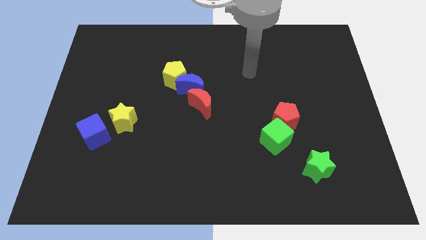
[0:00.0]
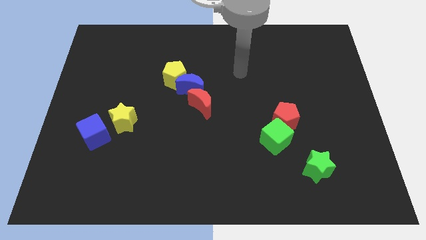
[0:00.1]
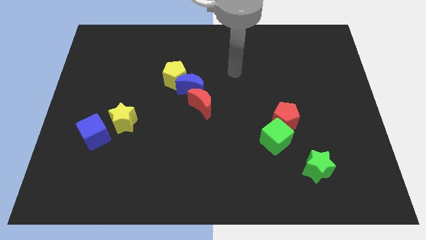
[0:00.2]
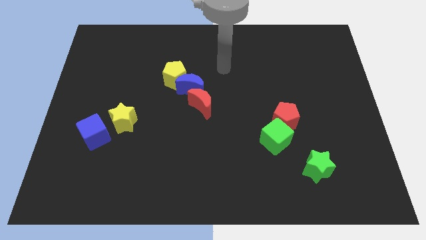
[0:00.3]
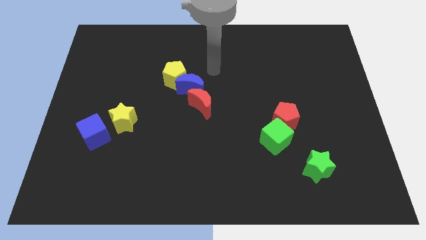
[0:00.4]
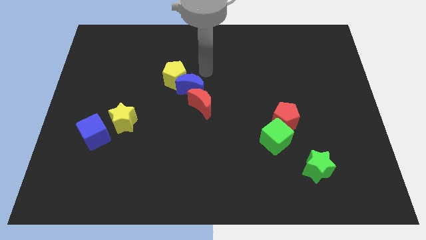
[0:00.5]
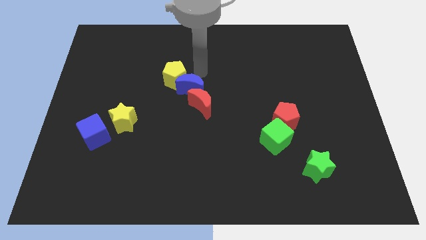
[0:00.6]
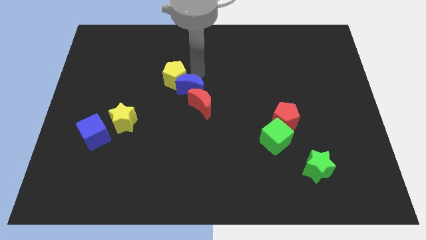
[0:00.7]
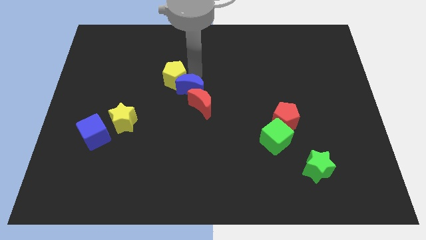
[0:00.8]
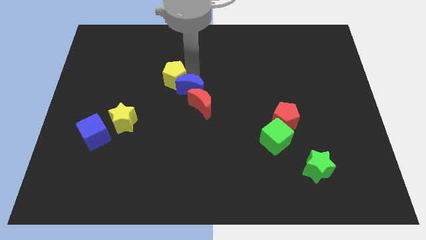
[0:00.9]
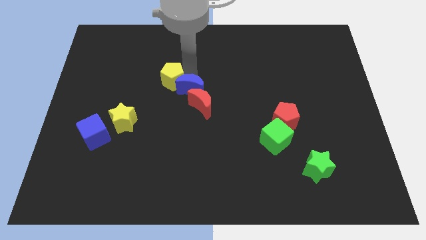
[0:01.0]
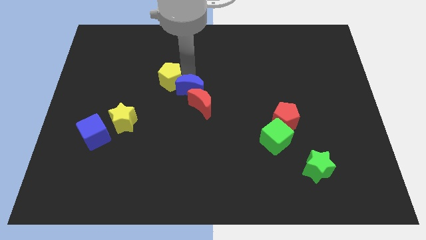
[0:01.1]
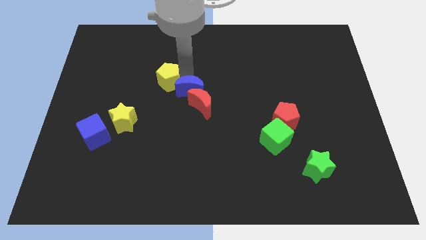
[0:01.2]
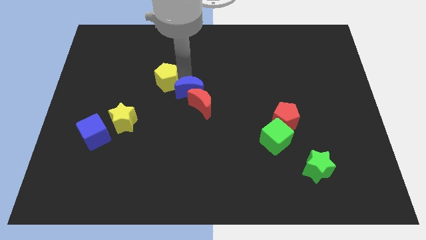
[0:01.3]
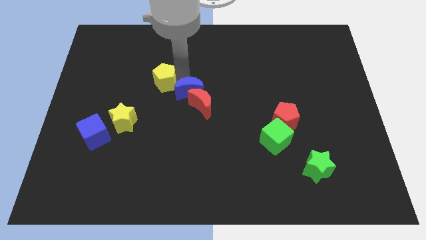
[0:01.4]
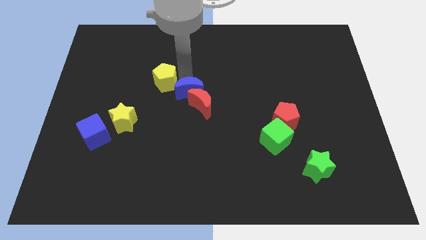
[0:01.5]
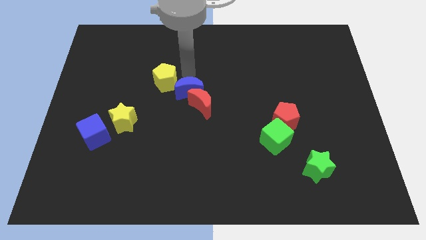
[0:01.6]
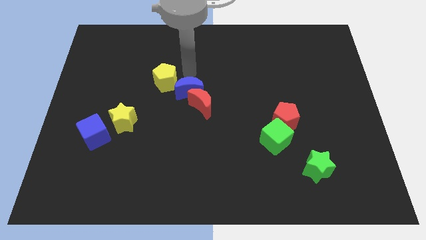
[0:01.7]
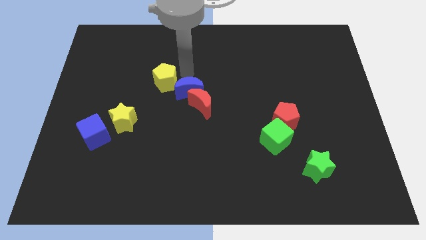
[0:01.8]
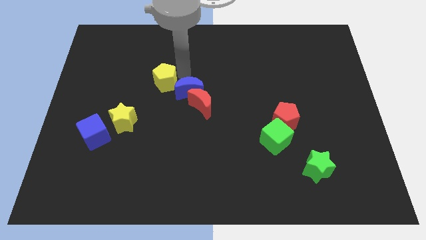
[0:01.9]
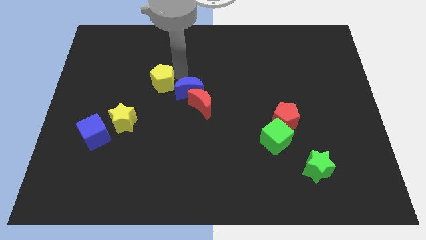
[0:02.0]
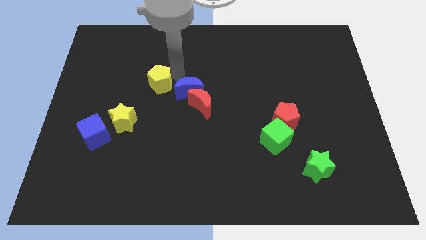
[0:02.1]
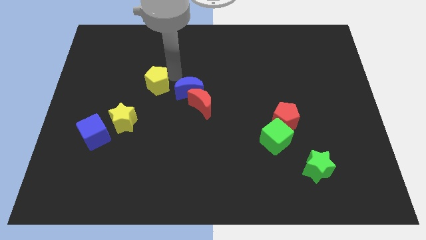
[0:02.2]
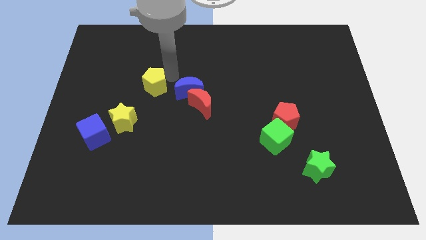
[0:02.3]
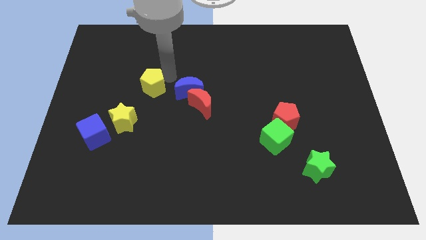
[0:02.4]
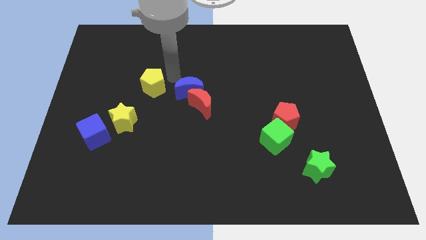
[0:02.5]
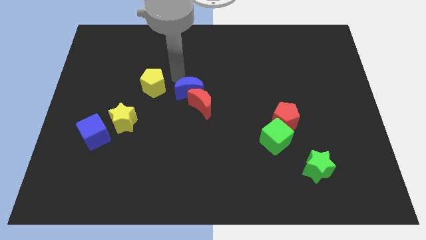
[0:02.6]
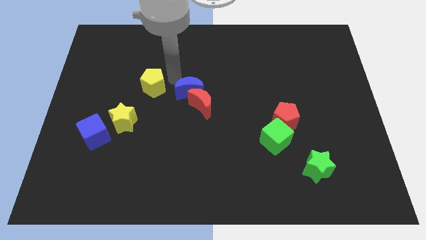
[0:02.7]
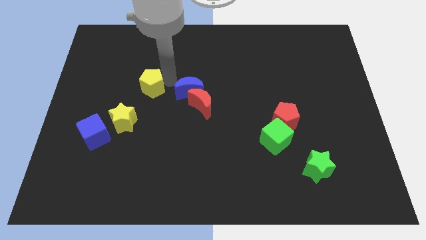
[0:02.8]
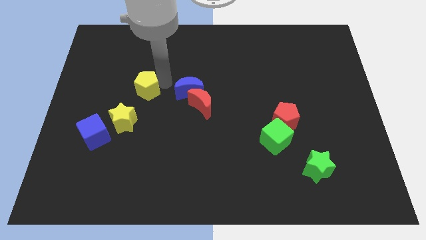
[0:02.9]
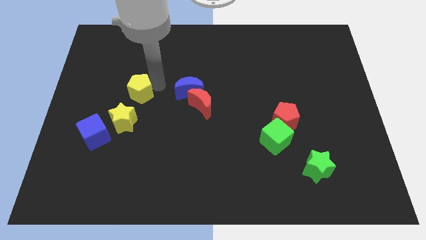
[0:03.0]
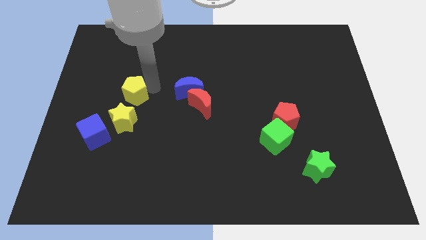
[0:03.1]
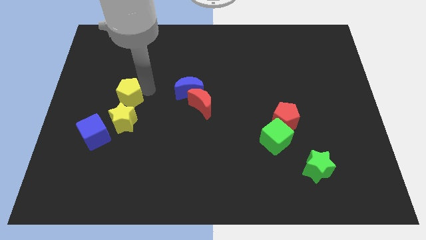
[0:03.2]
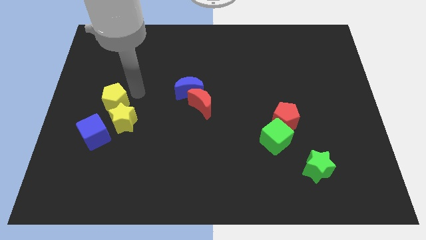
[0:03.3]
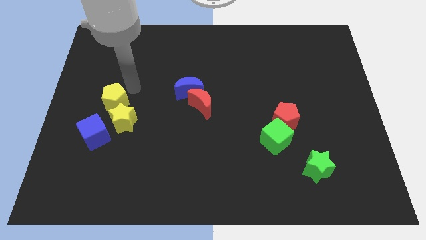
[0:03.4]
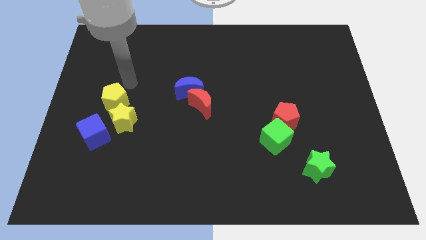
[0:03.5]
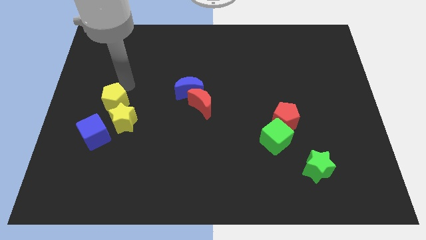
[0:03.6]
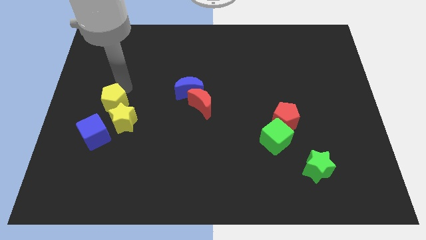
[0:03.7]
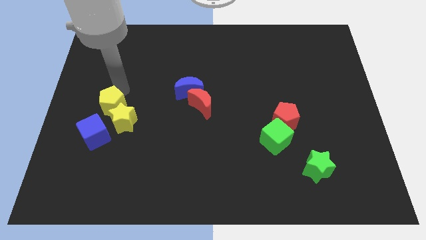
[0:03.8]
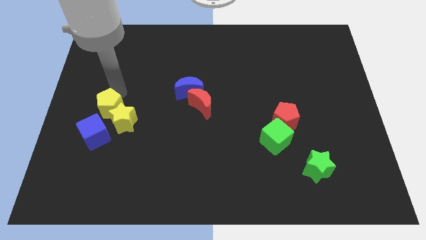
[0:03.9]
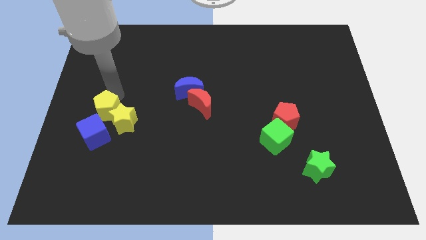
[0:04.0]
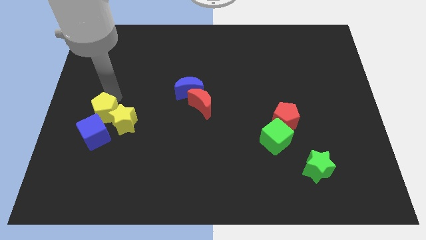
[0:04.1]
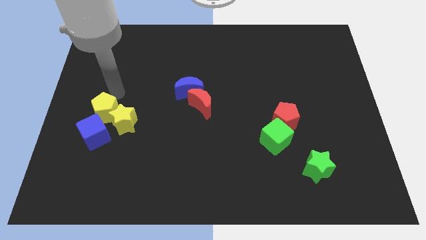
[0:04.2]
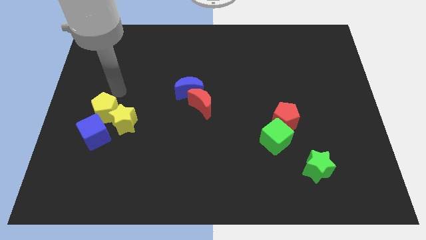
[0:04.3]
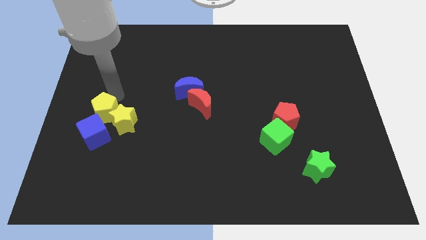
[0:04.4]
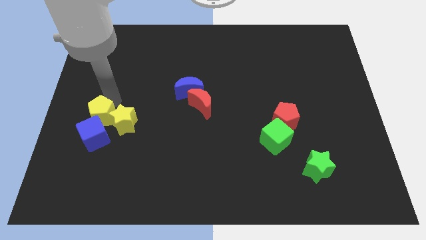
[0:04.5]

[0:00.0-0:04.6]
slide the yellow pentagon next to the blue cube

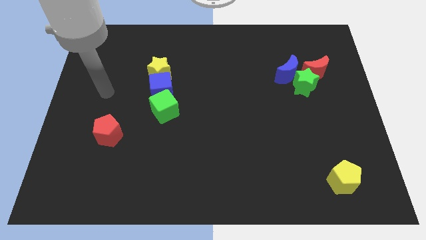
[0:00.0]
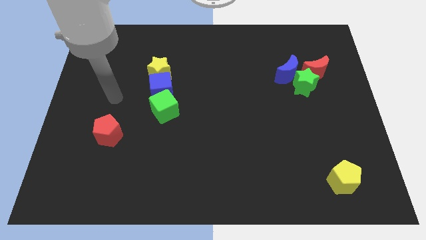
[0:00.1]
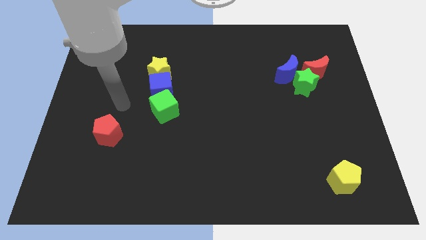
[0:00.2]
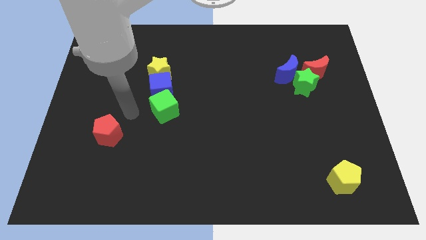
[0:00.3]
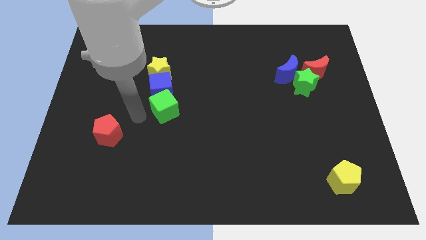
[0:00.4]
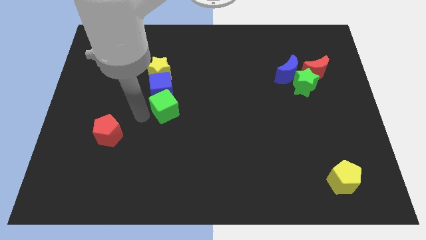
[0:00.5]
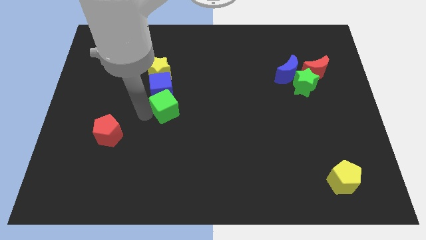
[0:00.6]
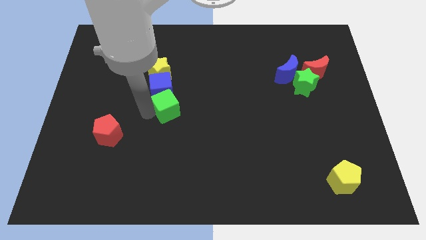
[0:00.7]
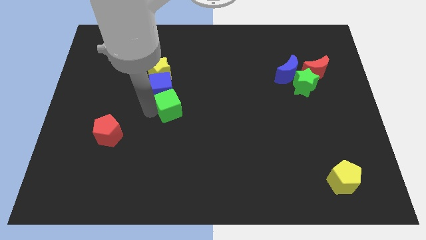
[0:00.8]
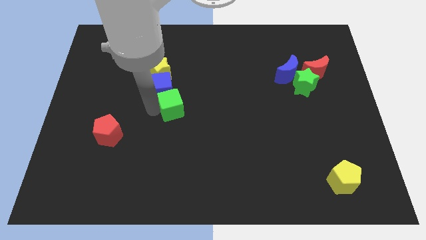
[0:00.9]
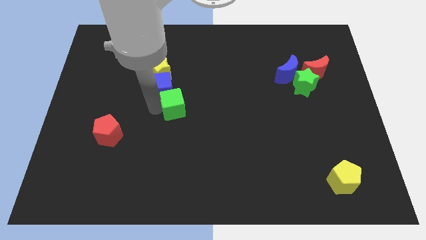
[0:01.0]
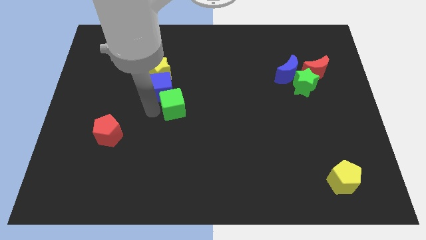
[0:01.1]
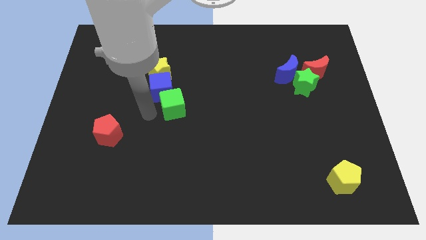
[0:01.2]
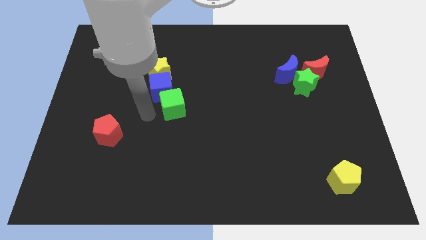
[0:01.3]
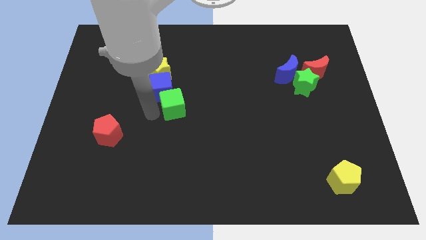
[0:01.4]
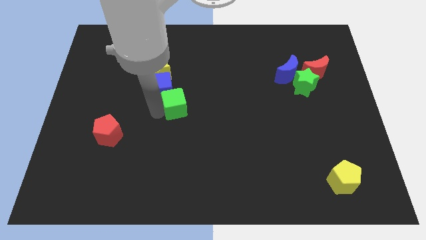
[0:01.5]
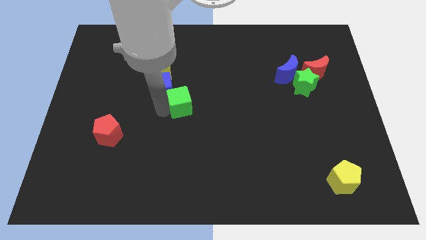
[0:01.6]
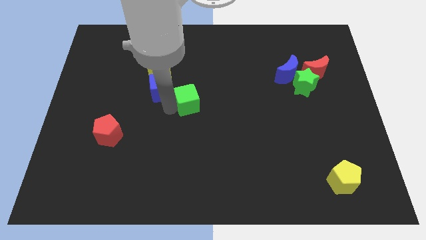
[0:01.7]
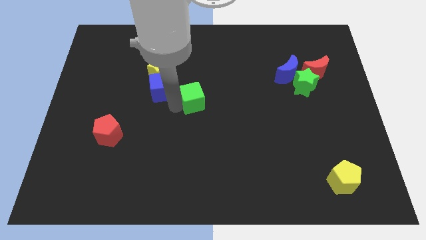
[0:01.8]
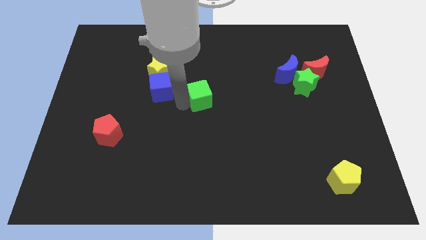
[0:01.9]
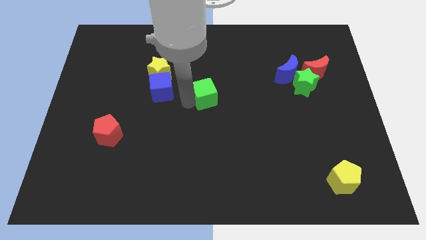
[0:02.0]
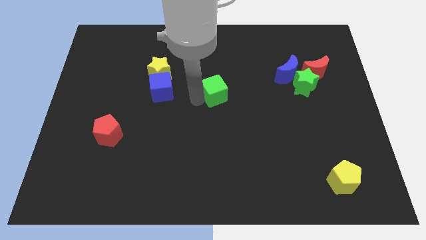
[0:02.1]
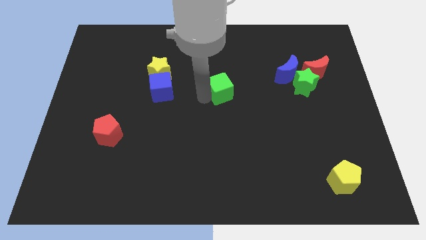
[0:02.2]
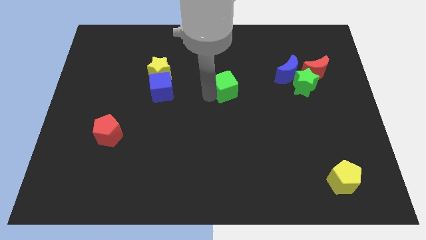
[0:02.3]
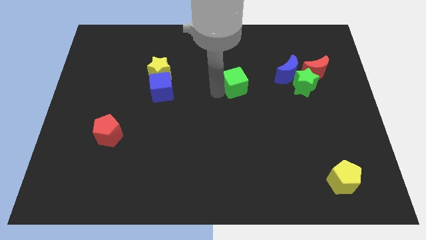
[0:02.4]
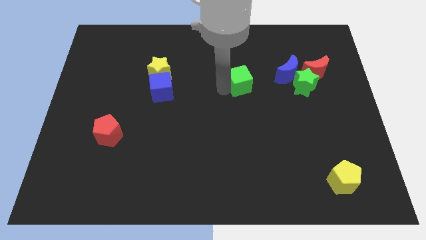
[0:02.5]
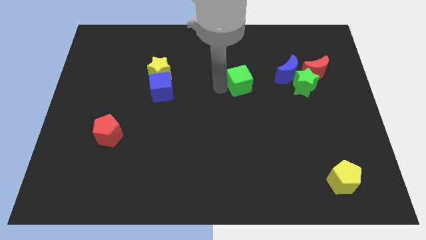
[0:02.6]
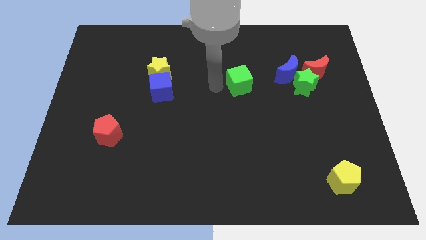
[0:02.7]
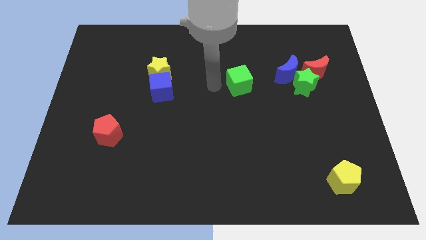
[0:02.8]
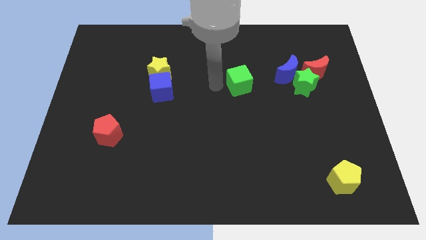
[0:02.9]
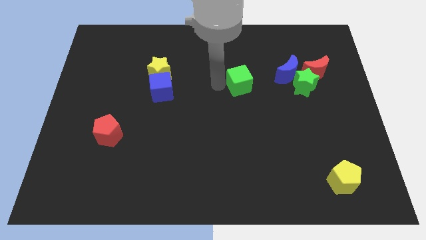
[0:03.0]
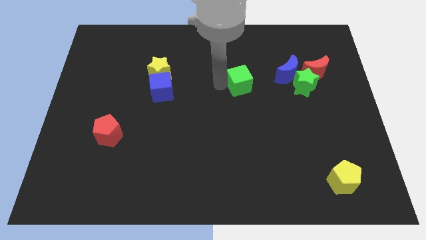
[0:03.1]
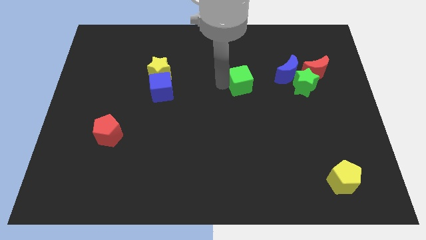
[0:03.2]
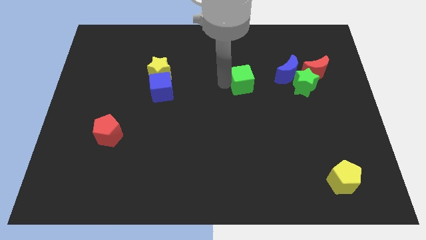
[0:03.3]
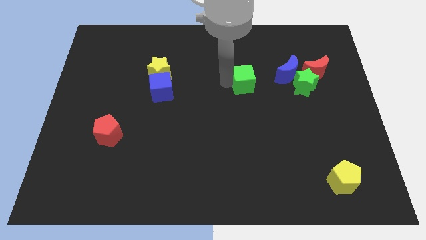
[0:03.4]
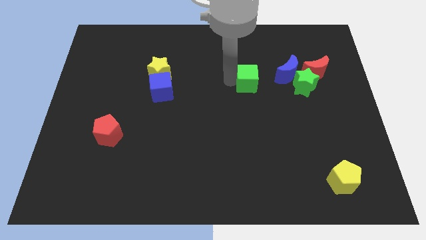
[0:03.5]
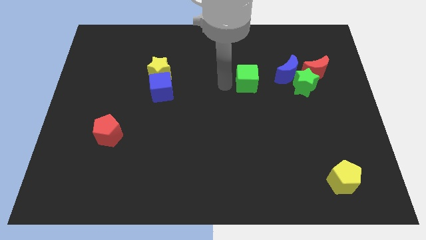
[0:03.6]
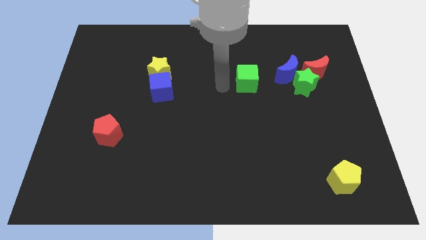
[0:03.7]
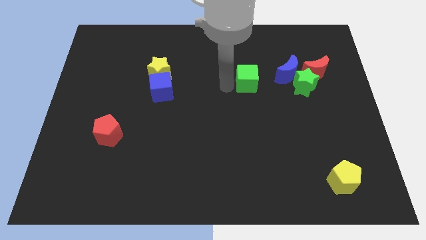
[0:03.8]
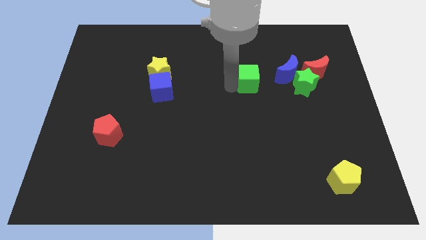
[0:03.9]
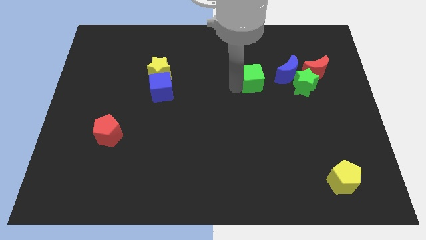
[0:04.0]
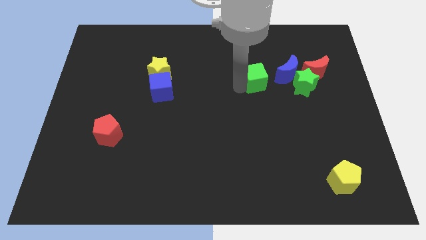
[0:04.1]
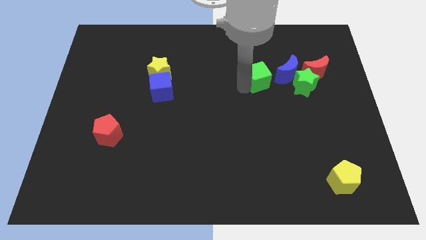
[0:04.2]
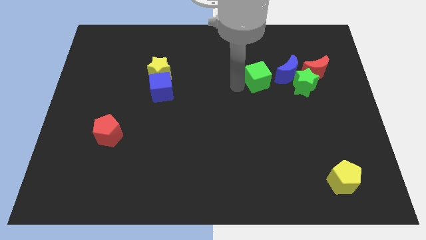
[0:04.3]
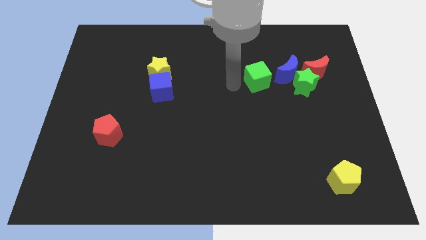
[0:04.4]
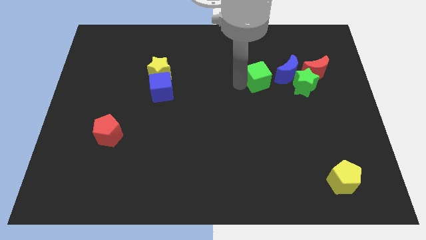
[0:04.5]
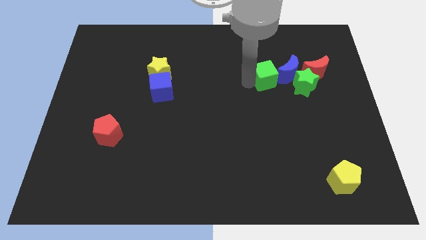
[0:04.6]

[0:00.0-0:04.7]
put the green cube next to the blue moon
